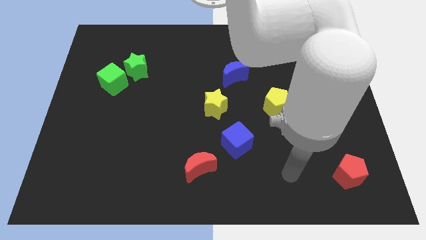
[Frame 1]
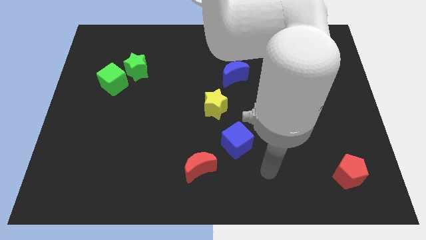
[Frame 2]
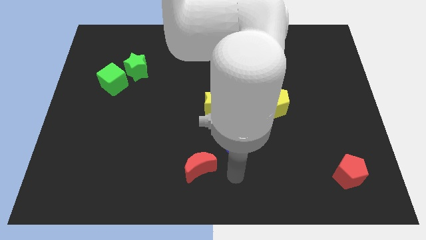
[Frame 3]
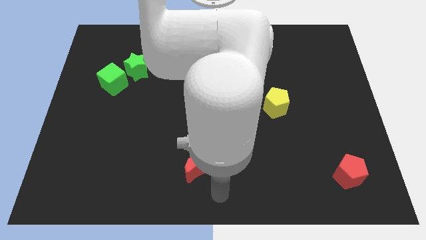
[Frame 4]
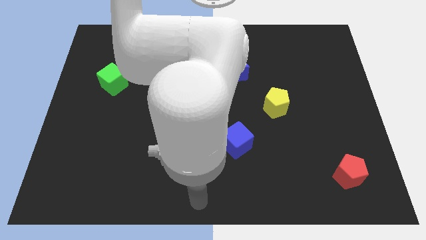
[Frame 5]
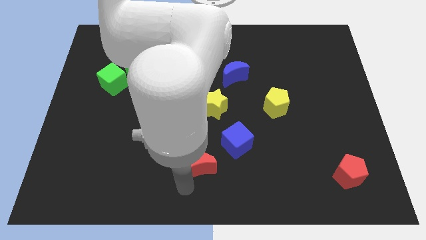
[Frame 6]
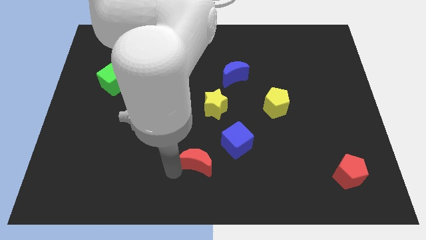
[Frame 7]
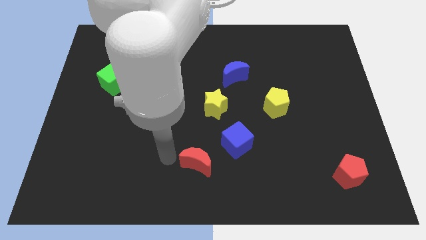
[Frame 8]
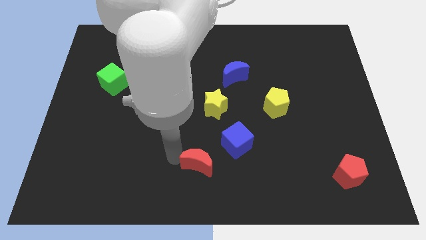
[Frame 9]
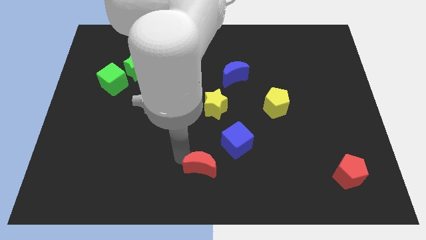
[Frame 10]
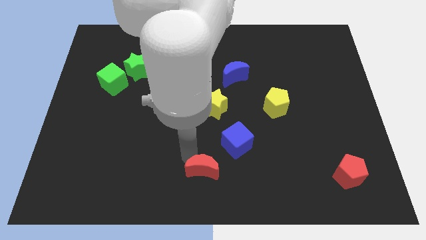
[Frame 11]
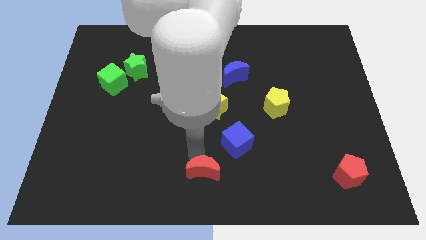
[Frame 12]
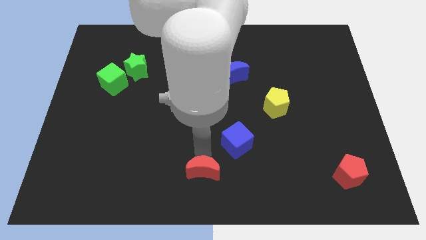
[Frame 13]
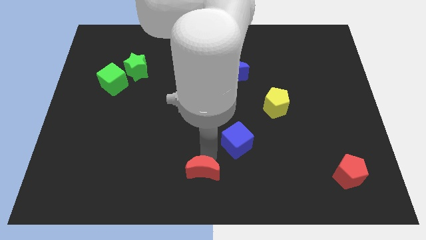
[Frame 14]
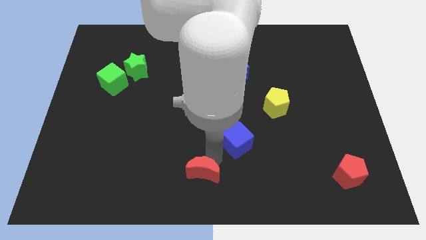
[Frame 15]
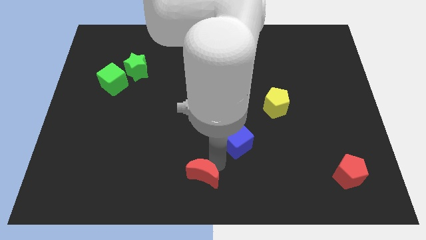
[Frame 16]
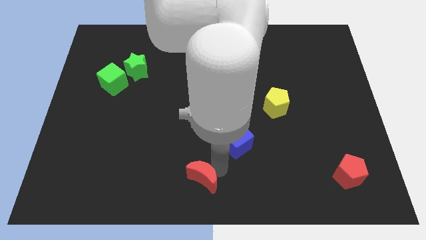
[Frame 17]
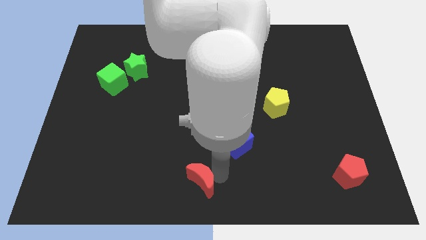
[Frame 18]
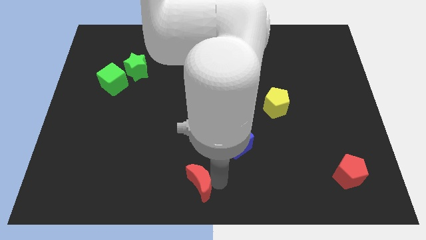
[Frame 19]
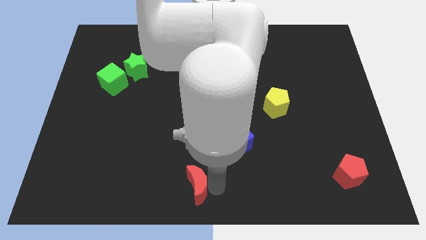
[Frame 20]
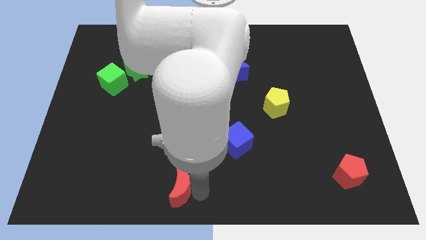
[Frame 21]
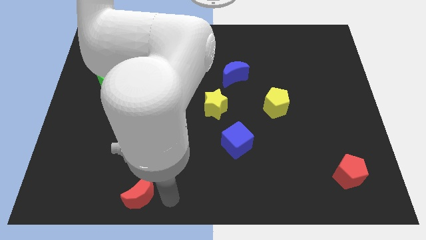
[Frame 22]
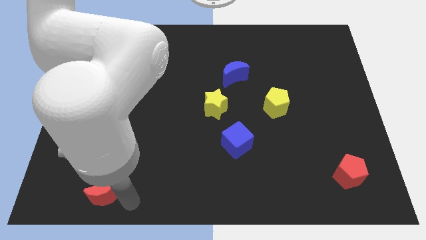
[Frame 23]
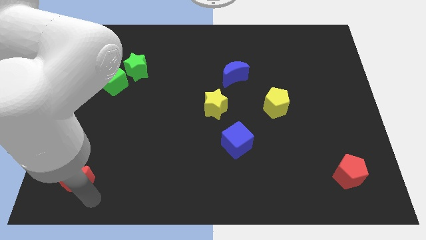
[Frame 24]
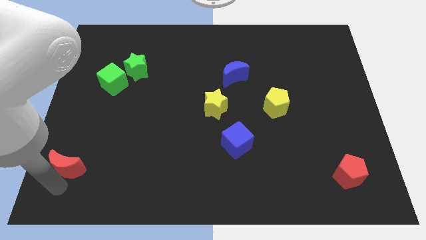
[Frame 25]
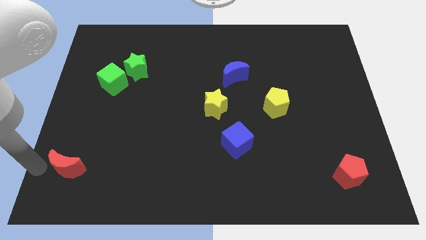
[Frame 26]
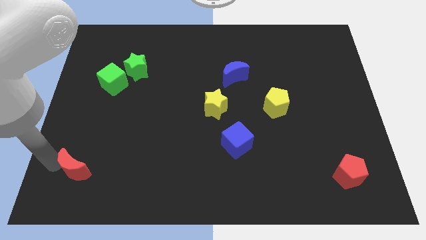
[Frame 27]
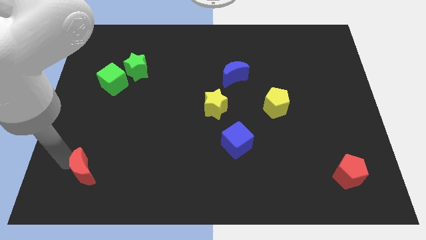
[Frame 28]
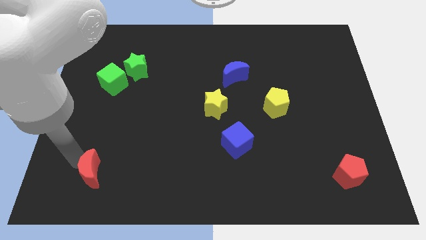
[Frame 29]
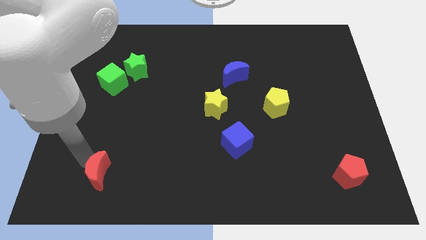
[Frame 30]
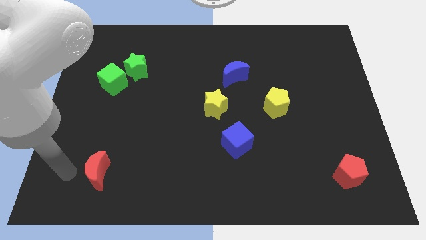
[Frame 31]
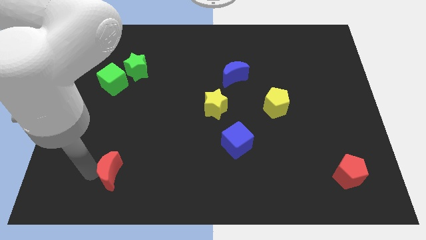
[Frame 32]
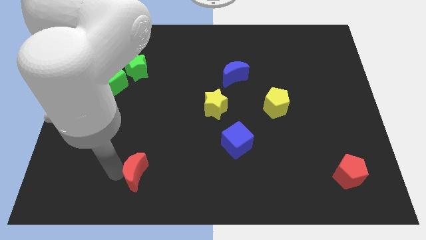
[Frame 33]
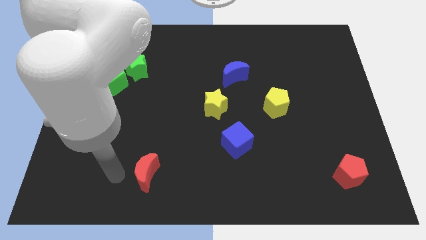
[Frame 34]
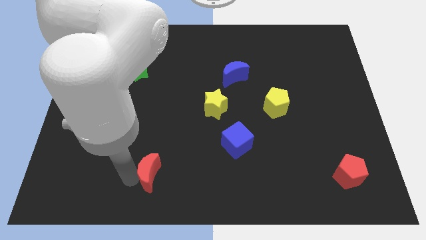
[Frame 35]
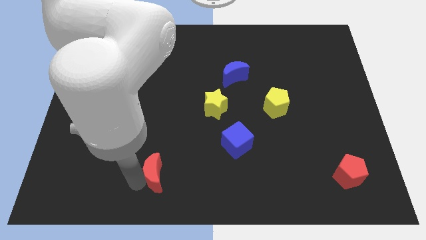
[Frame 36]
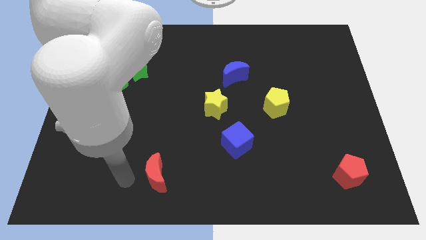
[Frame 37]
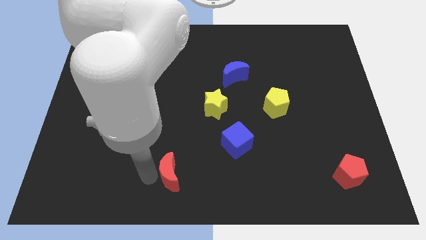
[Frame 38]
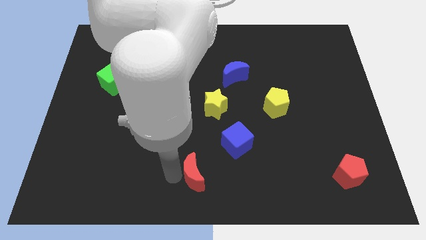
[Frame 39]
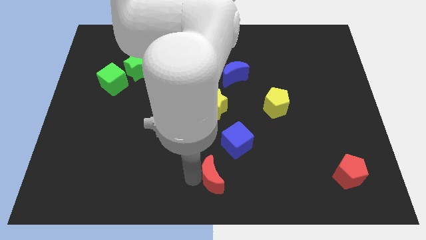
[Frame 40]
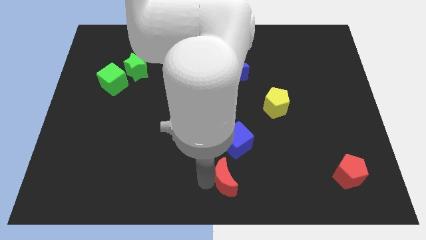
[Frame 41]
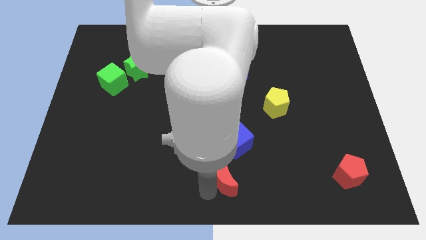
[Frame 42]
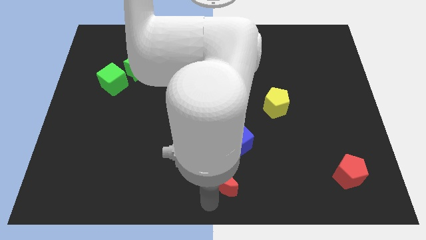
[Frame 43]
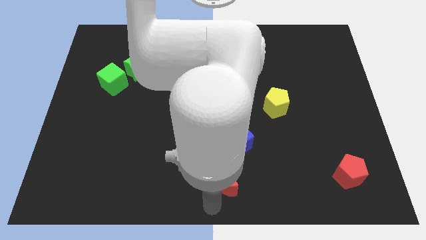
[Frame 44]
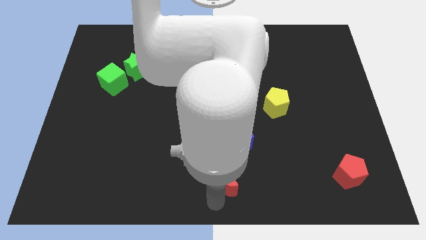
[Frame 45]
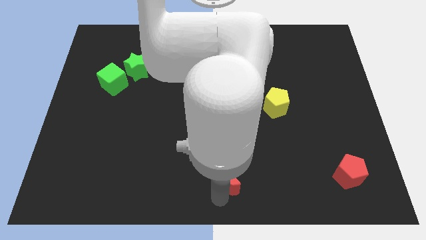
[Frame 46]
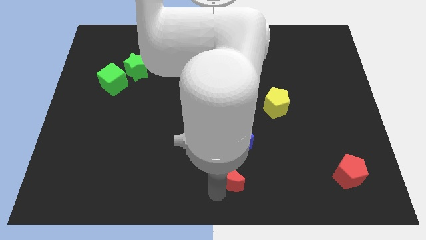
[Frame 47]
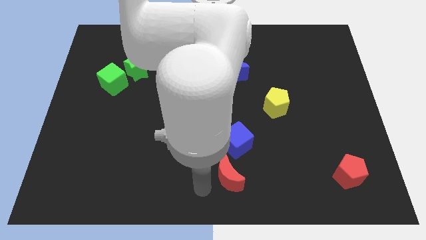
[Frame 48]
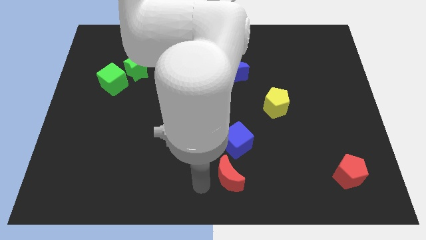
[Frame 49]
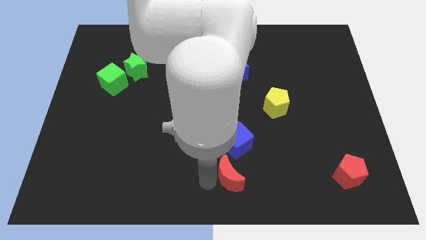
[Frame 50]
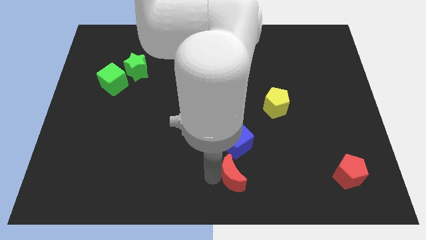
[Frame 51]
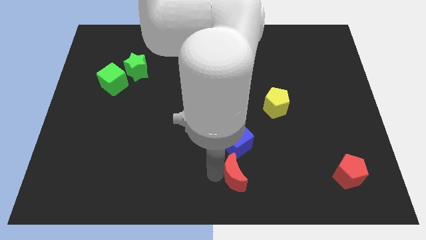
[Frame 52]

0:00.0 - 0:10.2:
move the red moon a bit right

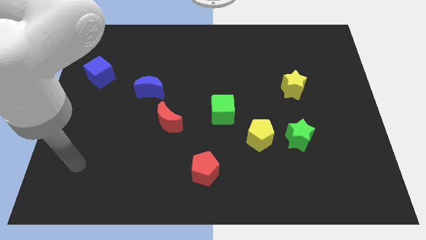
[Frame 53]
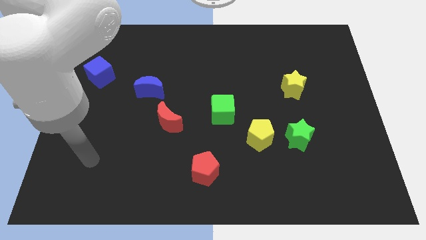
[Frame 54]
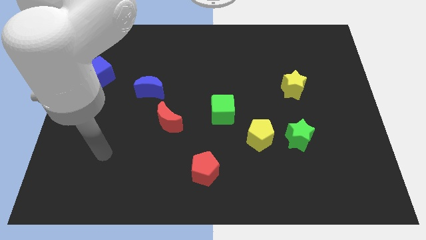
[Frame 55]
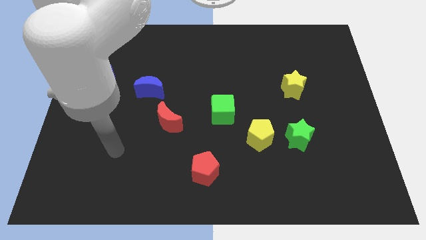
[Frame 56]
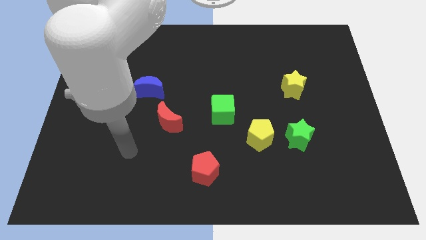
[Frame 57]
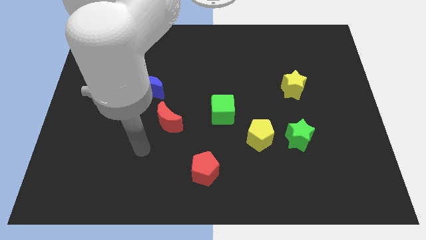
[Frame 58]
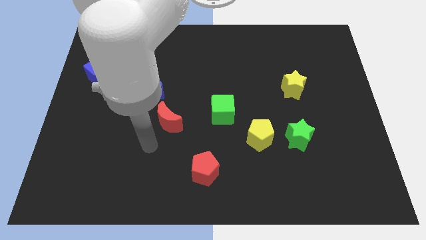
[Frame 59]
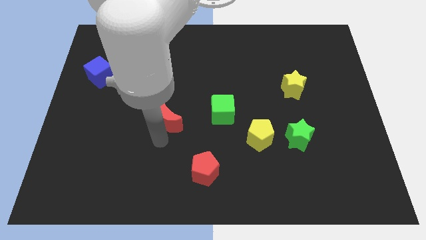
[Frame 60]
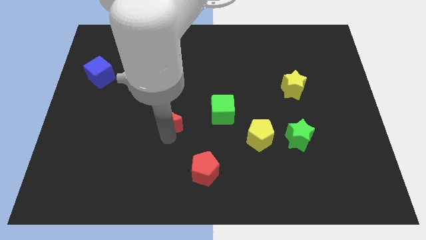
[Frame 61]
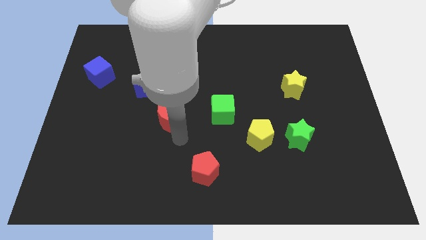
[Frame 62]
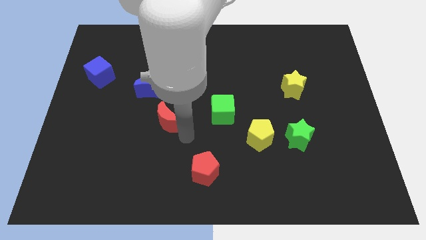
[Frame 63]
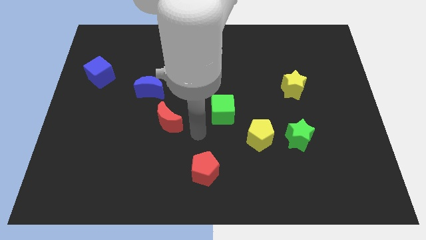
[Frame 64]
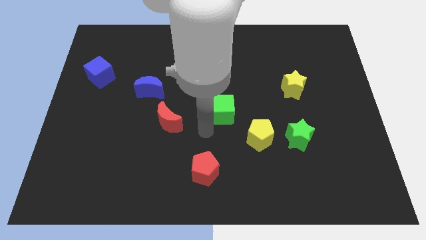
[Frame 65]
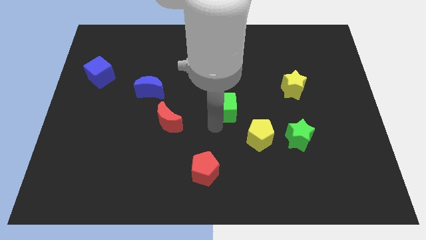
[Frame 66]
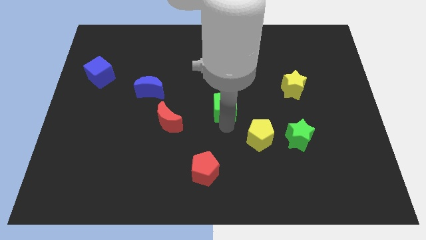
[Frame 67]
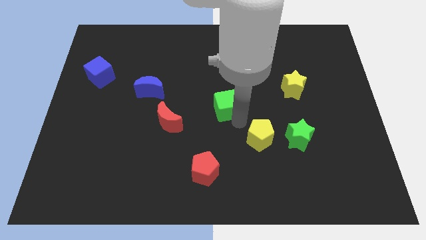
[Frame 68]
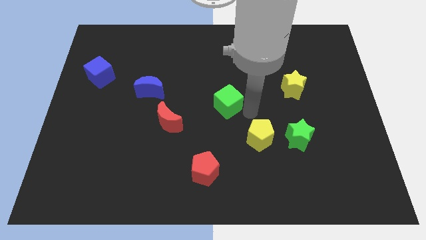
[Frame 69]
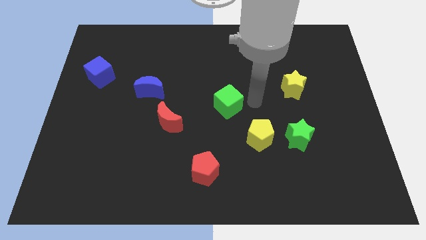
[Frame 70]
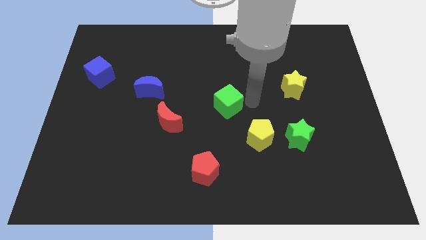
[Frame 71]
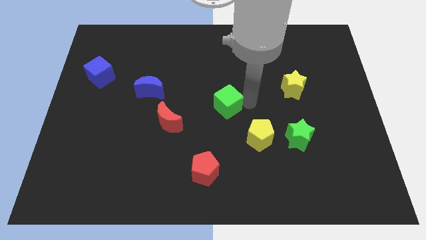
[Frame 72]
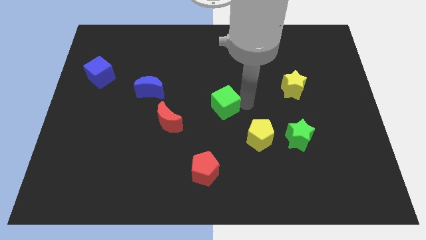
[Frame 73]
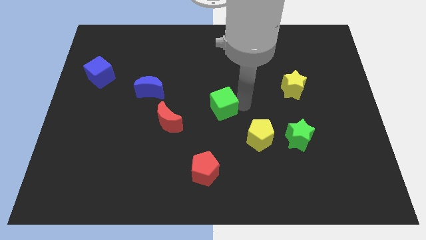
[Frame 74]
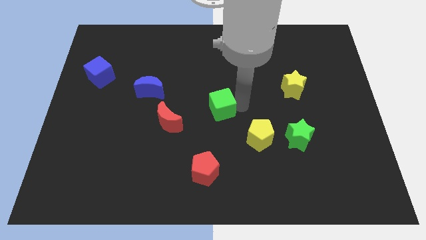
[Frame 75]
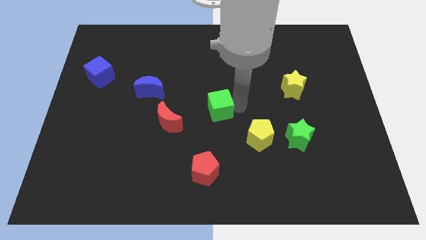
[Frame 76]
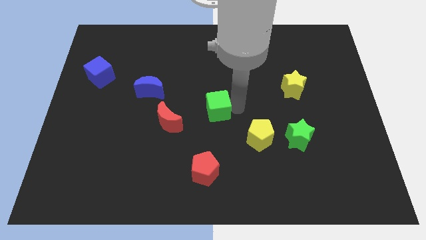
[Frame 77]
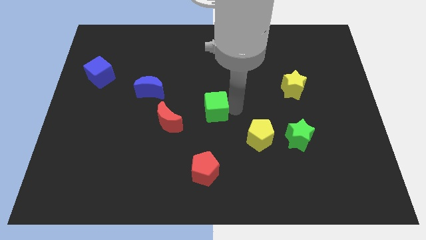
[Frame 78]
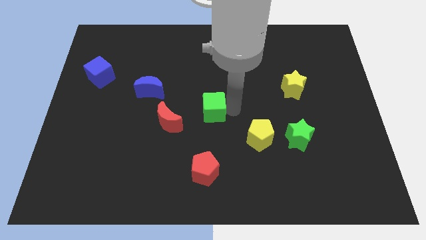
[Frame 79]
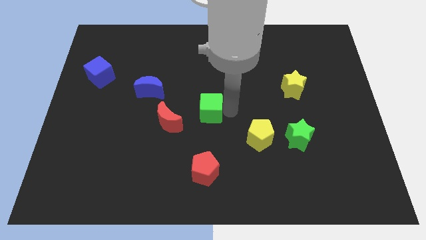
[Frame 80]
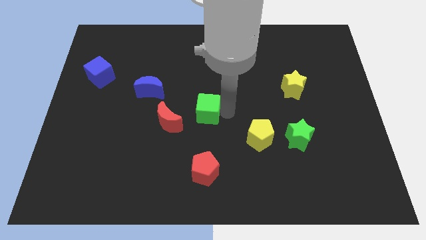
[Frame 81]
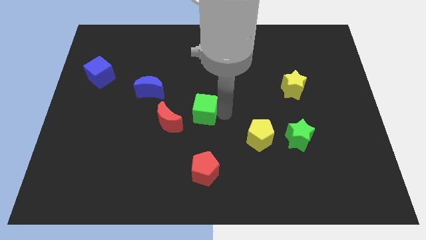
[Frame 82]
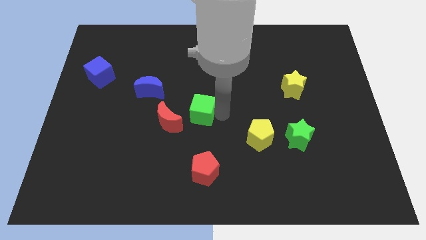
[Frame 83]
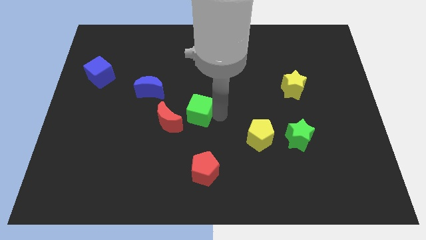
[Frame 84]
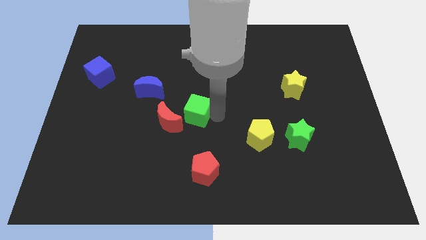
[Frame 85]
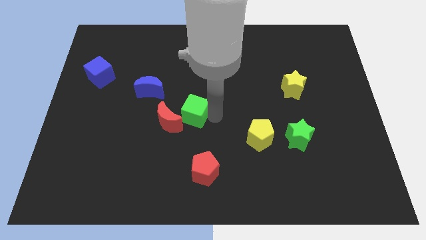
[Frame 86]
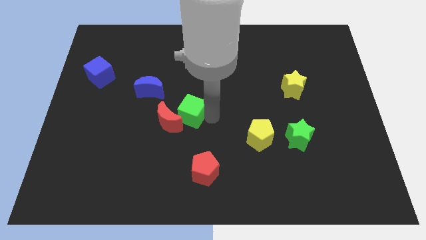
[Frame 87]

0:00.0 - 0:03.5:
push the green cube to the left a little bit
